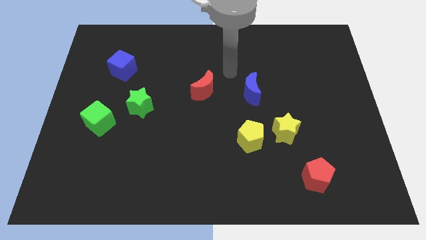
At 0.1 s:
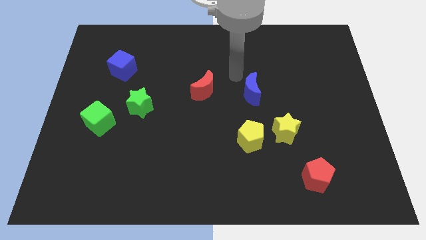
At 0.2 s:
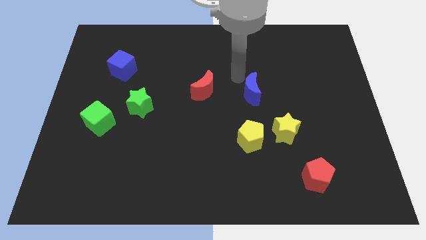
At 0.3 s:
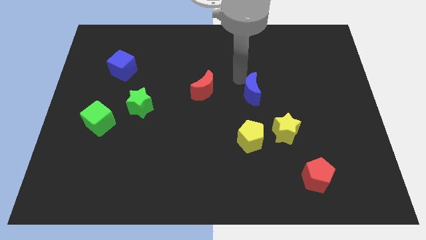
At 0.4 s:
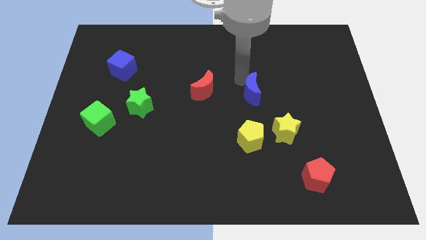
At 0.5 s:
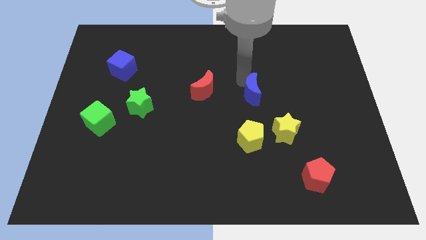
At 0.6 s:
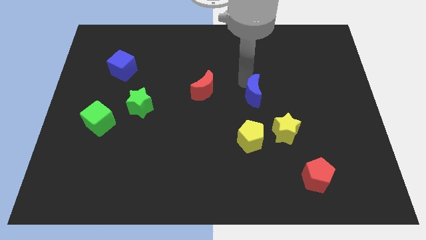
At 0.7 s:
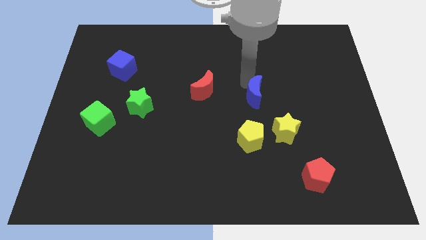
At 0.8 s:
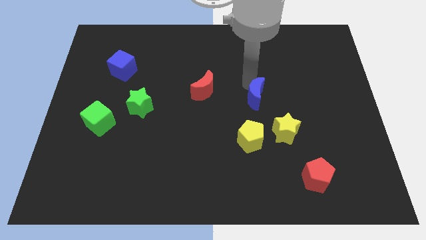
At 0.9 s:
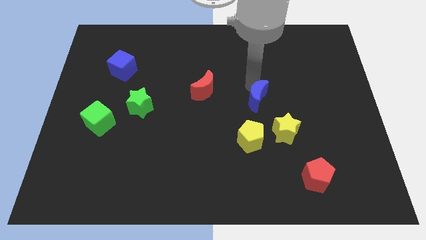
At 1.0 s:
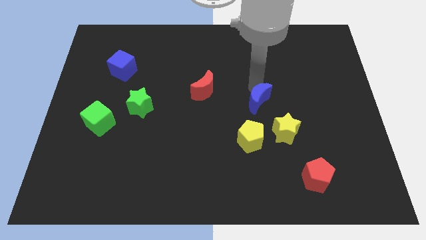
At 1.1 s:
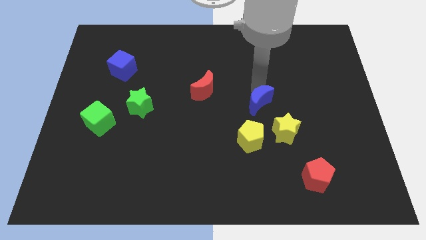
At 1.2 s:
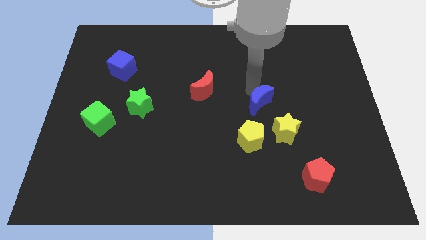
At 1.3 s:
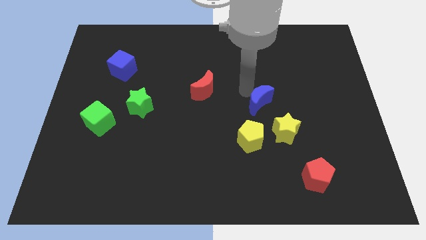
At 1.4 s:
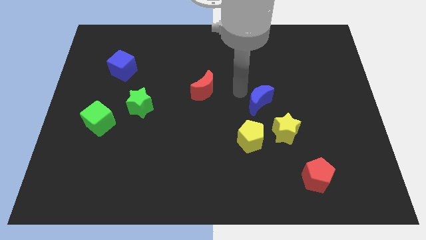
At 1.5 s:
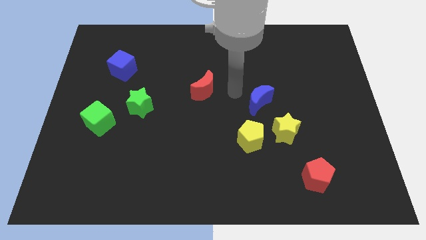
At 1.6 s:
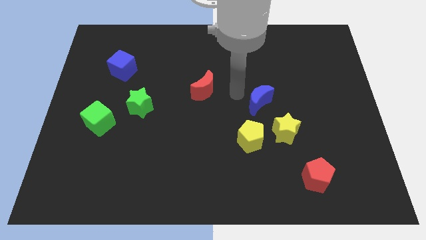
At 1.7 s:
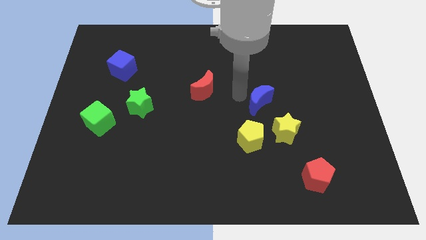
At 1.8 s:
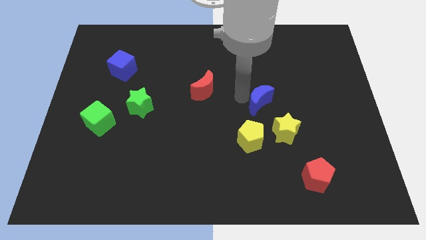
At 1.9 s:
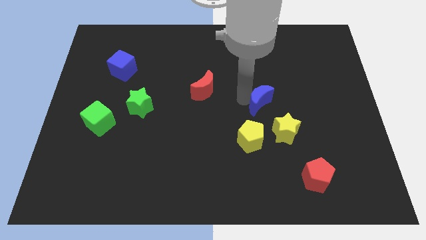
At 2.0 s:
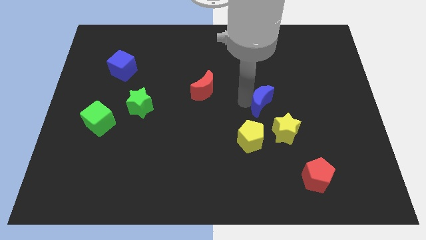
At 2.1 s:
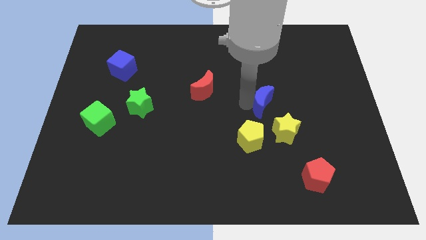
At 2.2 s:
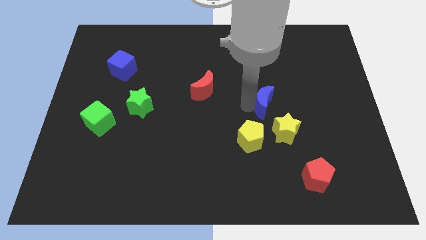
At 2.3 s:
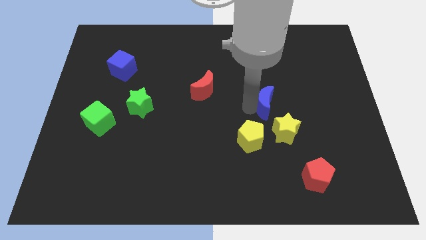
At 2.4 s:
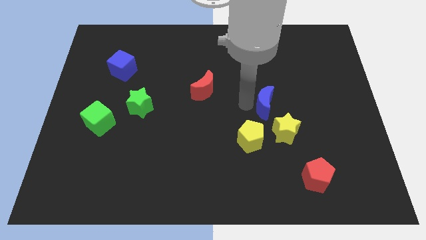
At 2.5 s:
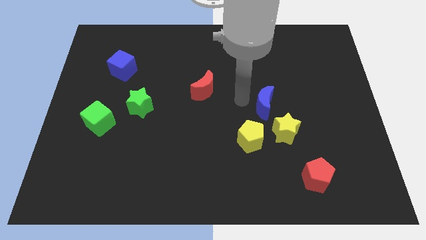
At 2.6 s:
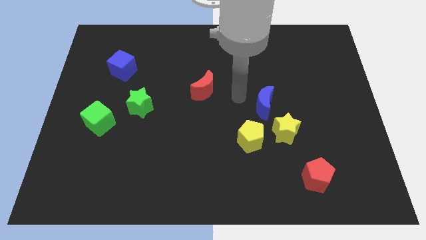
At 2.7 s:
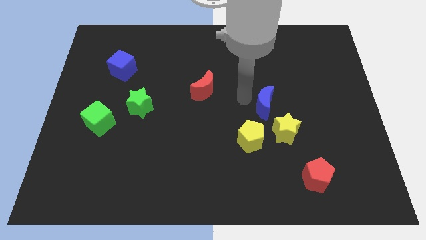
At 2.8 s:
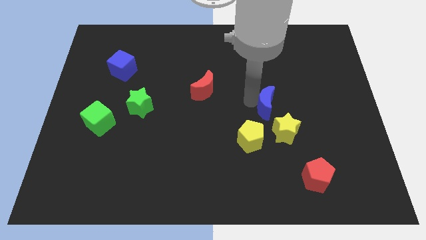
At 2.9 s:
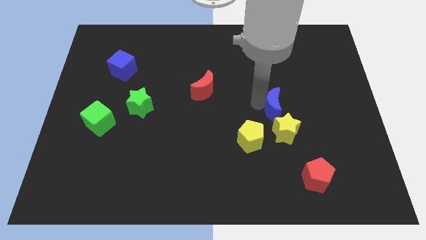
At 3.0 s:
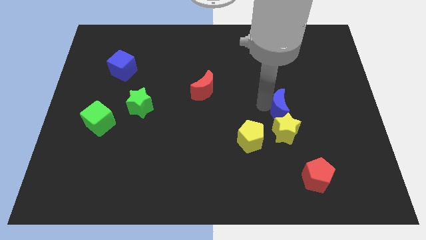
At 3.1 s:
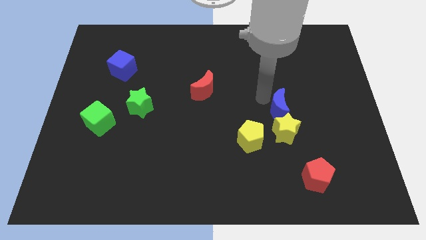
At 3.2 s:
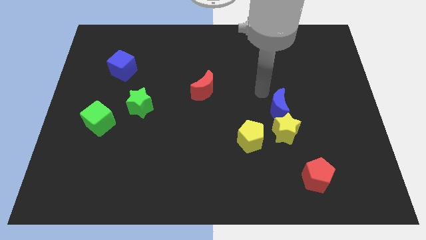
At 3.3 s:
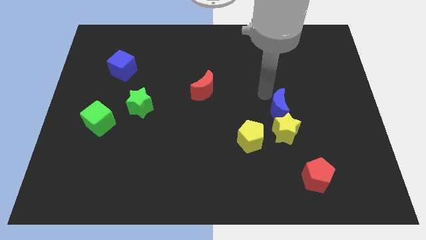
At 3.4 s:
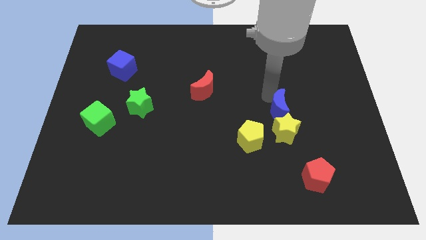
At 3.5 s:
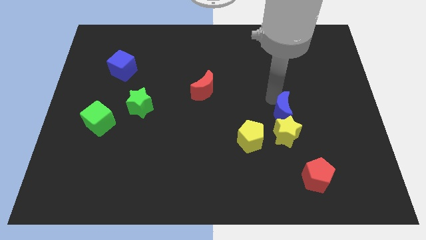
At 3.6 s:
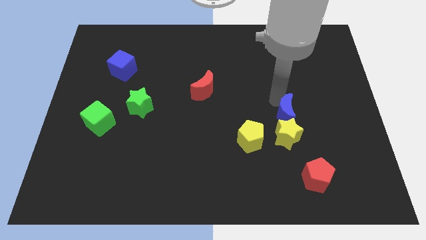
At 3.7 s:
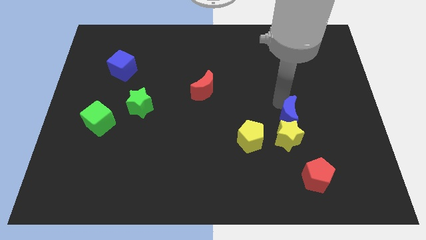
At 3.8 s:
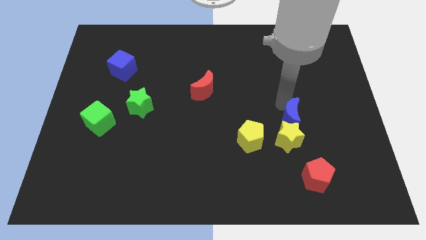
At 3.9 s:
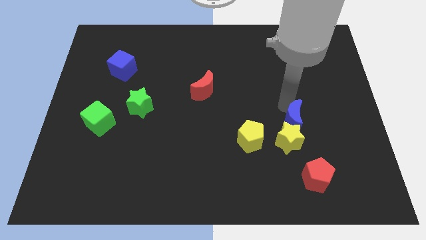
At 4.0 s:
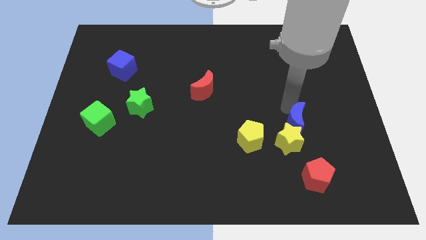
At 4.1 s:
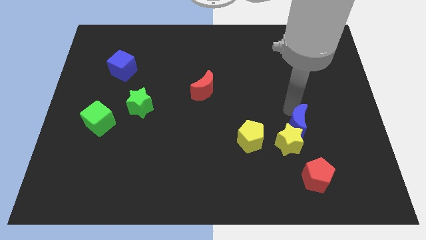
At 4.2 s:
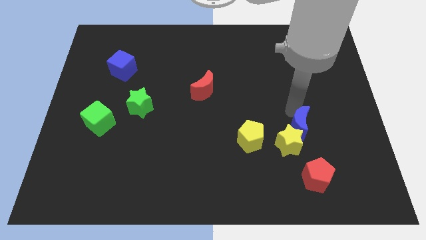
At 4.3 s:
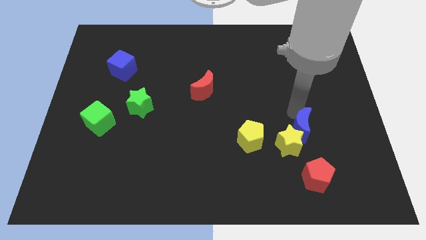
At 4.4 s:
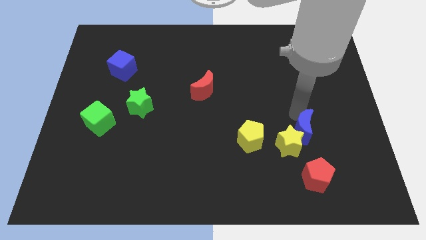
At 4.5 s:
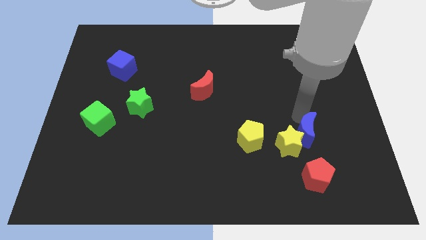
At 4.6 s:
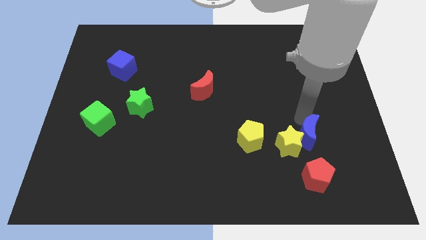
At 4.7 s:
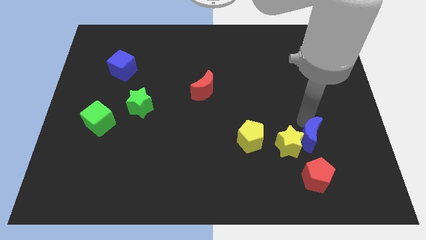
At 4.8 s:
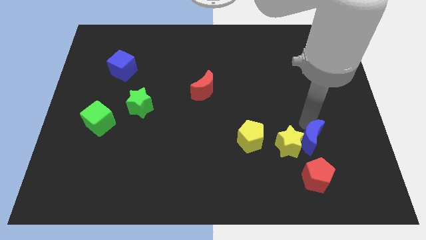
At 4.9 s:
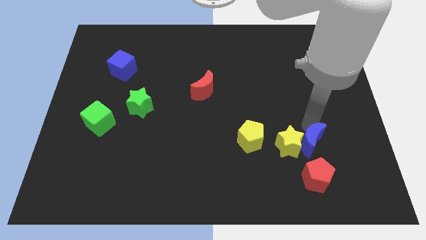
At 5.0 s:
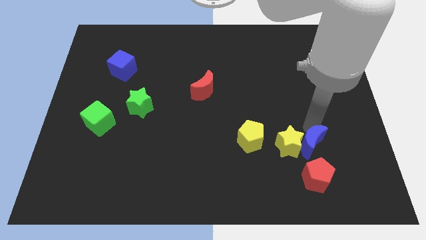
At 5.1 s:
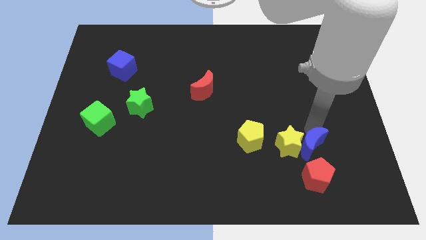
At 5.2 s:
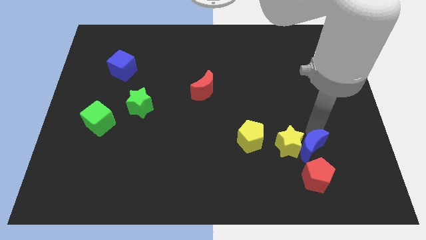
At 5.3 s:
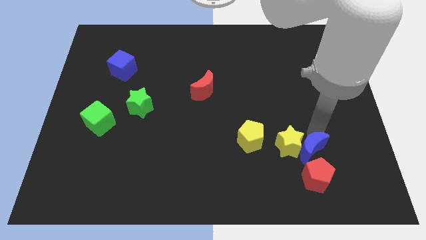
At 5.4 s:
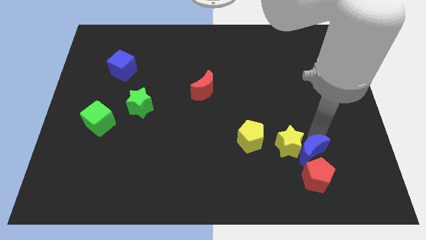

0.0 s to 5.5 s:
slide the blue moon to the red pentagon

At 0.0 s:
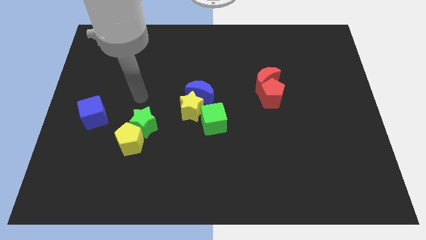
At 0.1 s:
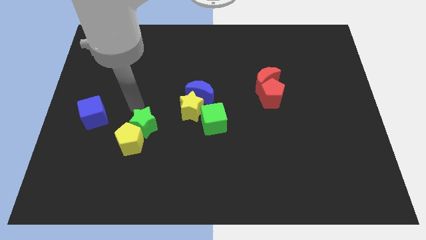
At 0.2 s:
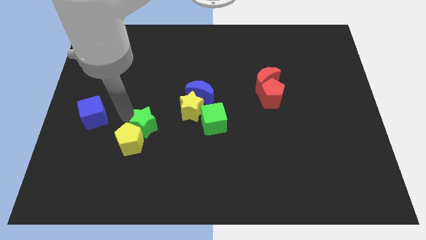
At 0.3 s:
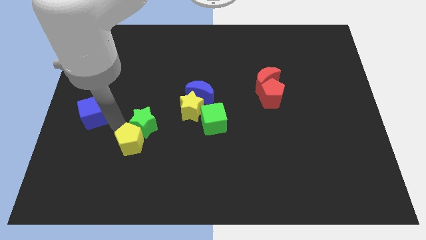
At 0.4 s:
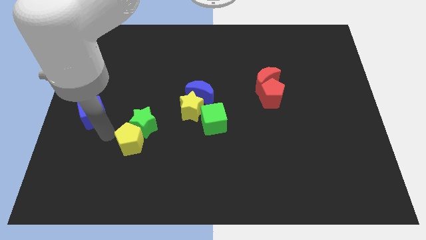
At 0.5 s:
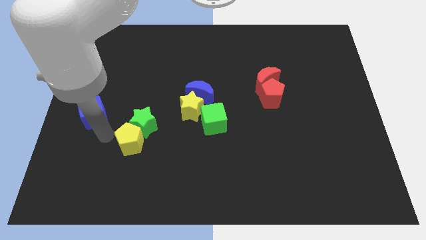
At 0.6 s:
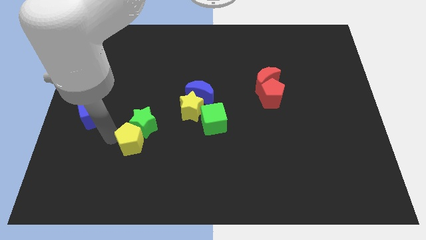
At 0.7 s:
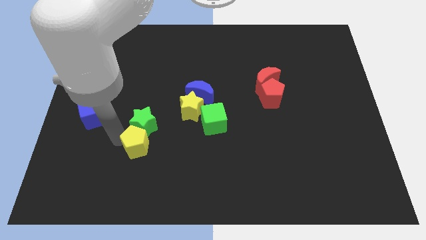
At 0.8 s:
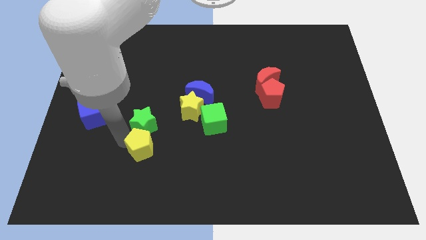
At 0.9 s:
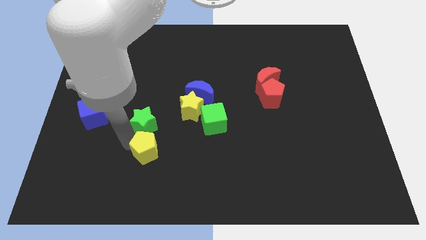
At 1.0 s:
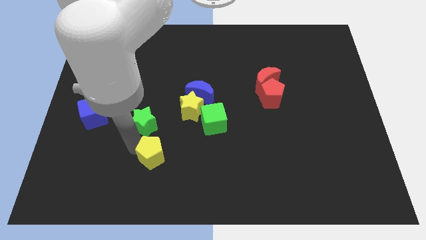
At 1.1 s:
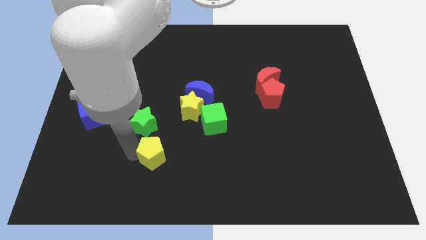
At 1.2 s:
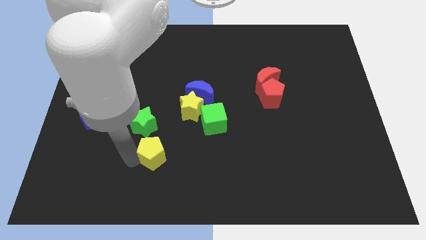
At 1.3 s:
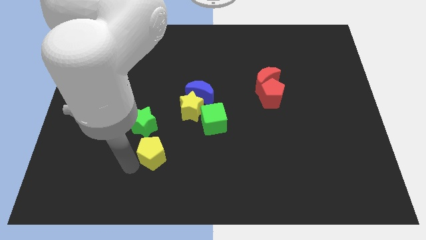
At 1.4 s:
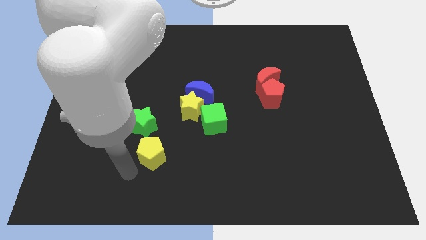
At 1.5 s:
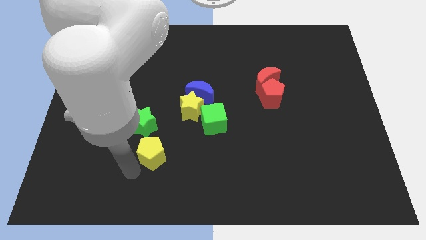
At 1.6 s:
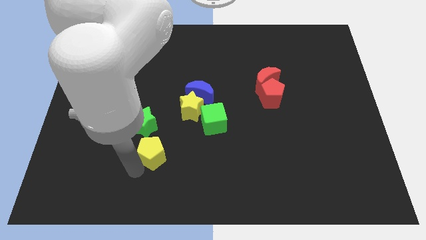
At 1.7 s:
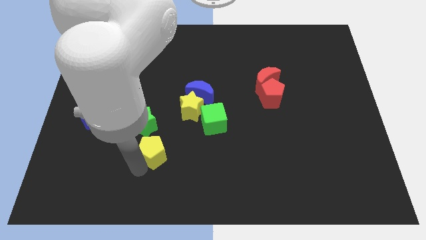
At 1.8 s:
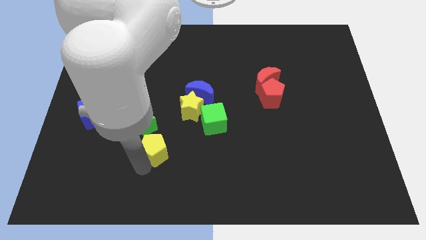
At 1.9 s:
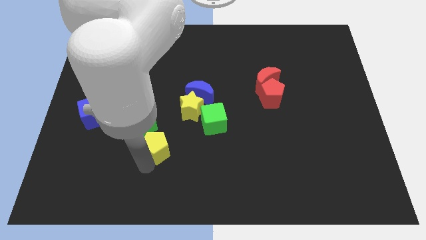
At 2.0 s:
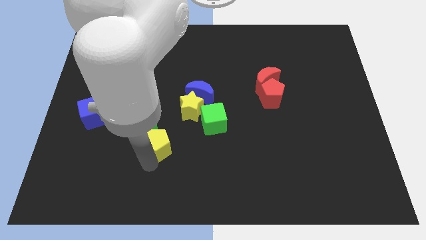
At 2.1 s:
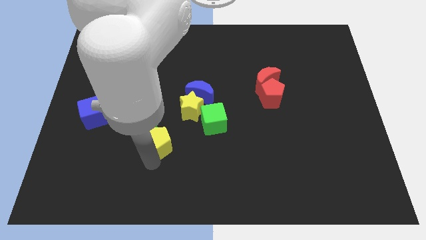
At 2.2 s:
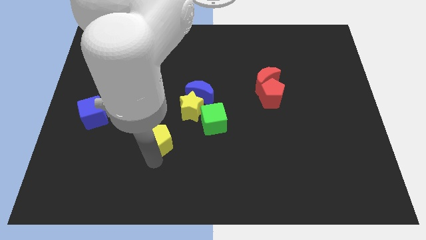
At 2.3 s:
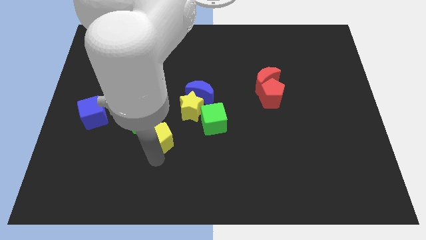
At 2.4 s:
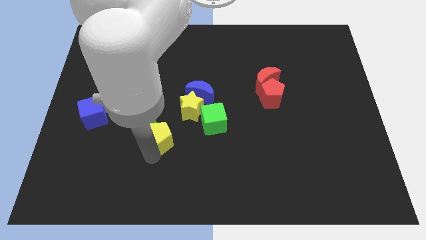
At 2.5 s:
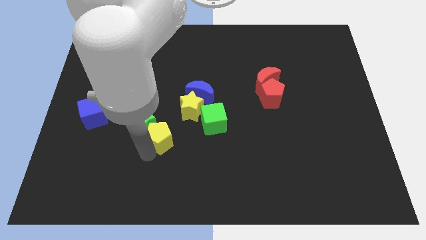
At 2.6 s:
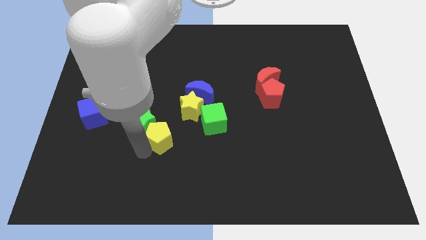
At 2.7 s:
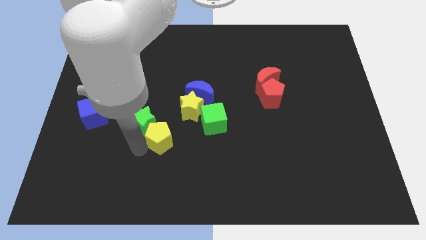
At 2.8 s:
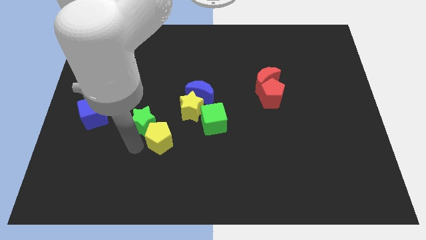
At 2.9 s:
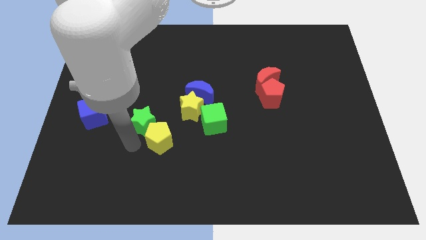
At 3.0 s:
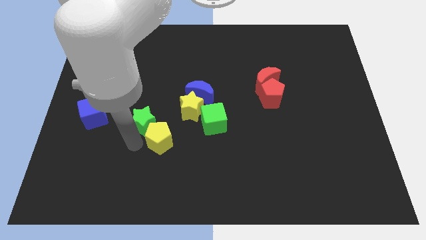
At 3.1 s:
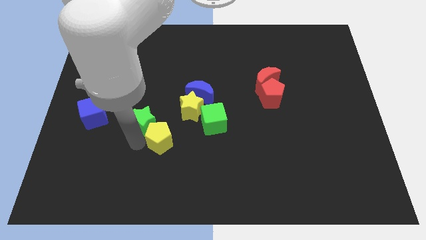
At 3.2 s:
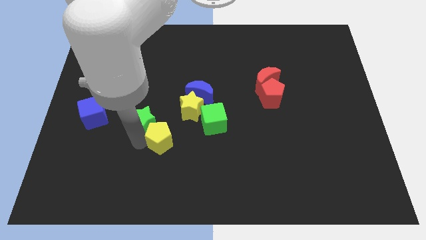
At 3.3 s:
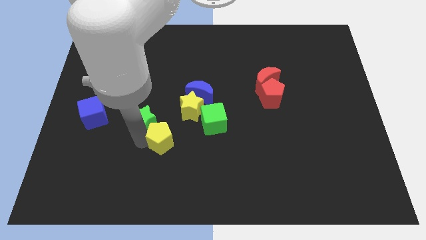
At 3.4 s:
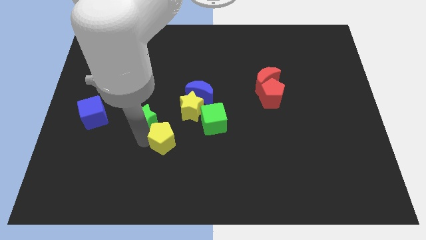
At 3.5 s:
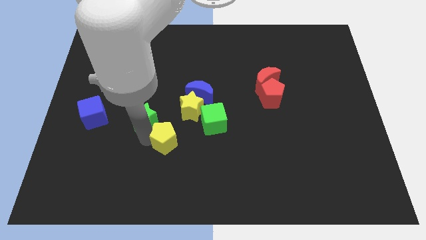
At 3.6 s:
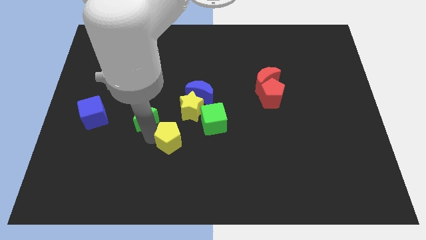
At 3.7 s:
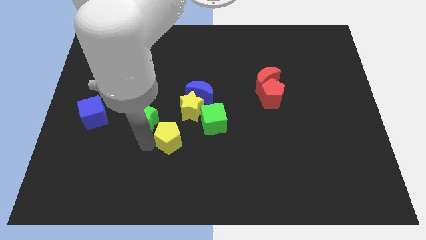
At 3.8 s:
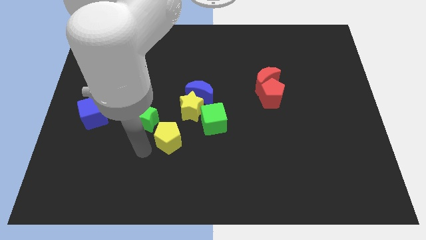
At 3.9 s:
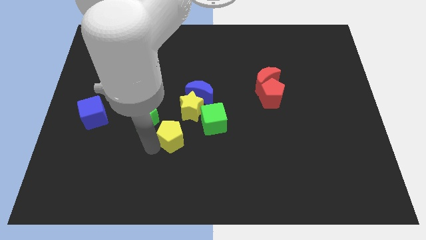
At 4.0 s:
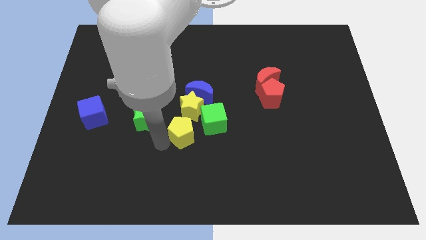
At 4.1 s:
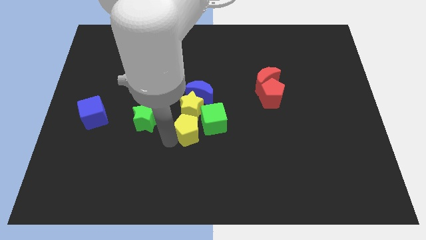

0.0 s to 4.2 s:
put the yellow pentagon towards the green cube
